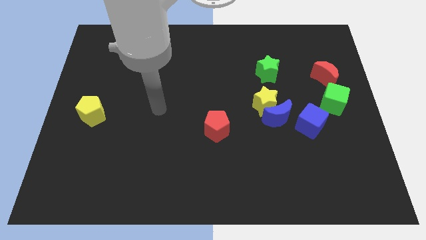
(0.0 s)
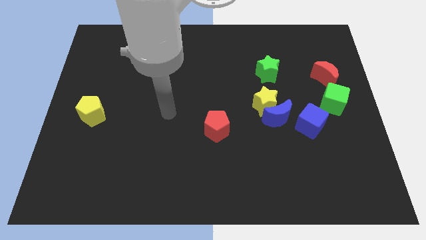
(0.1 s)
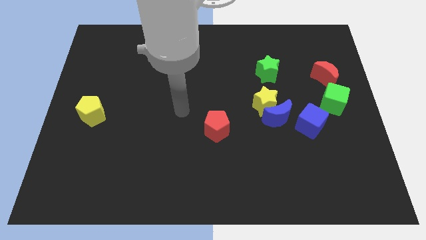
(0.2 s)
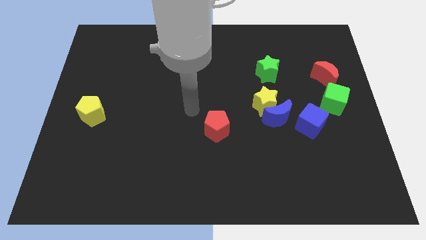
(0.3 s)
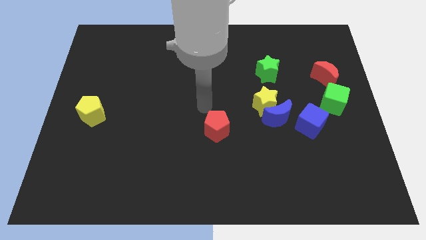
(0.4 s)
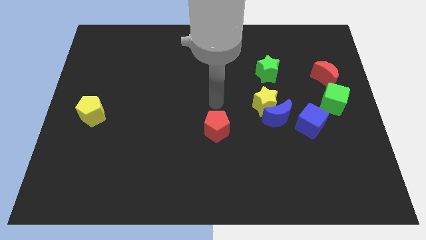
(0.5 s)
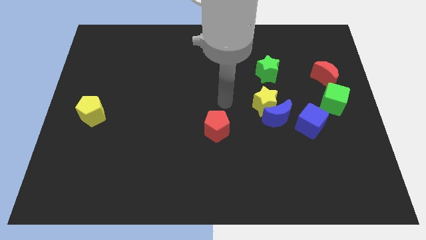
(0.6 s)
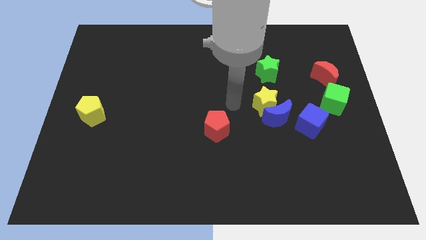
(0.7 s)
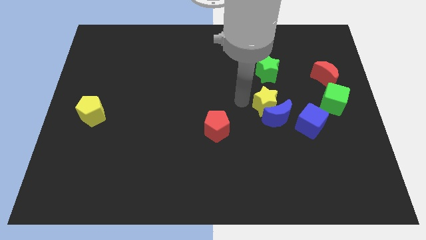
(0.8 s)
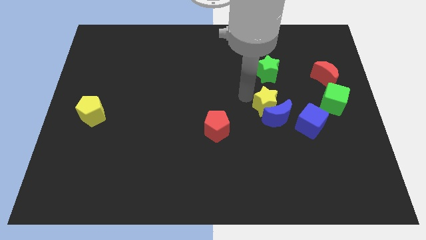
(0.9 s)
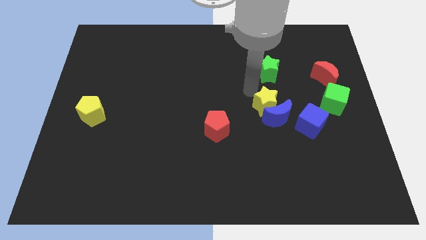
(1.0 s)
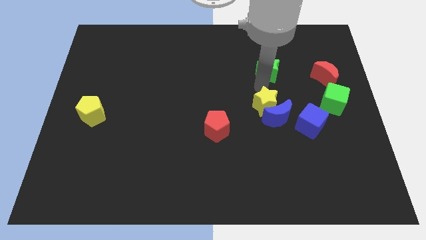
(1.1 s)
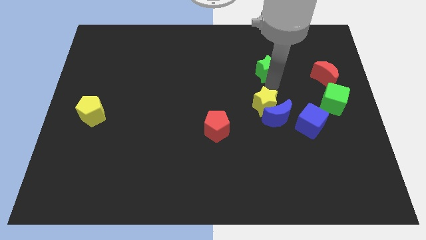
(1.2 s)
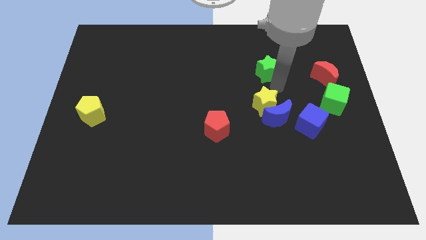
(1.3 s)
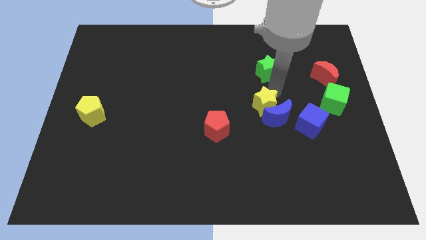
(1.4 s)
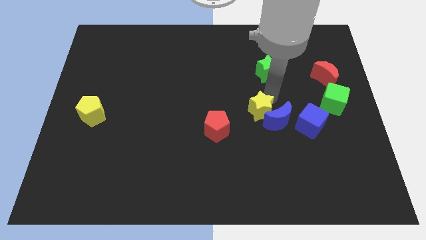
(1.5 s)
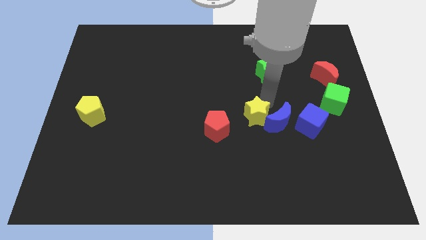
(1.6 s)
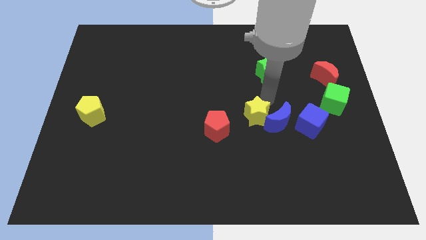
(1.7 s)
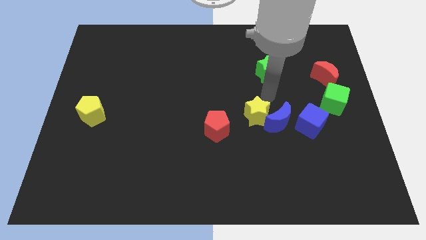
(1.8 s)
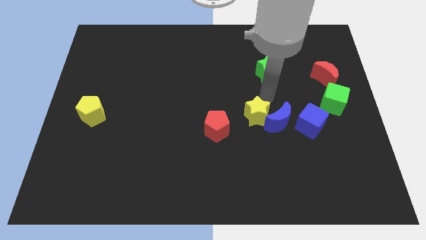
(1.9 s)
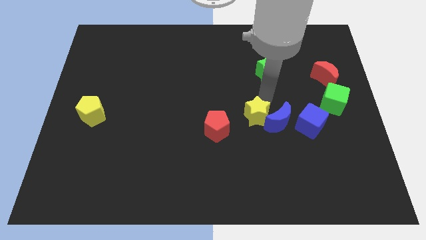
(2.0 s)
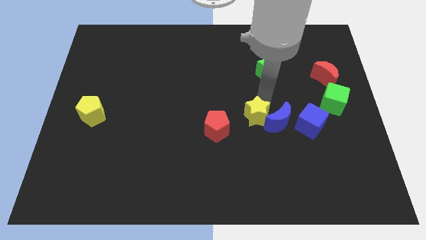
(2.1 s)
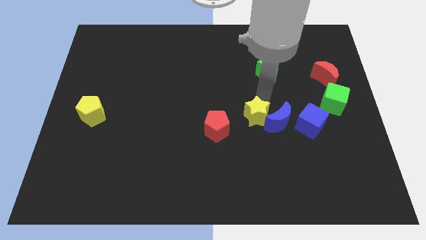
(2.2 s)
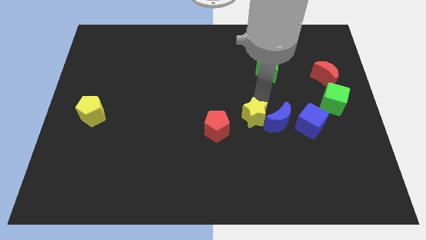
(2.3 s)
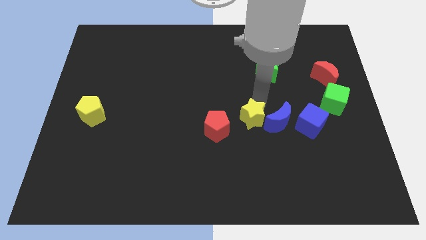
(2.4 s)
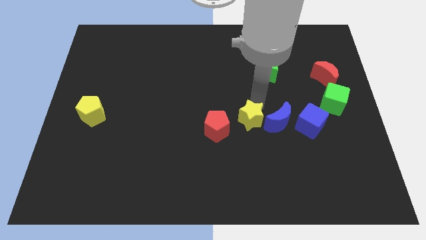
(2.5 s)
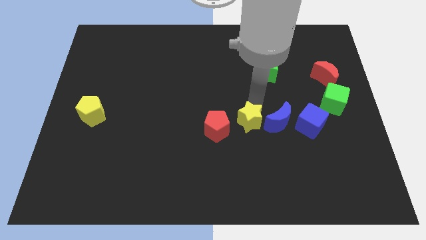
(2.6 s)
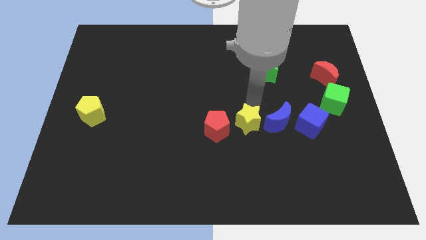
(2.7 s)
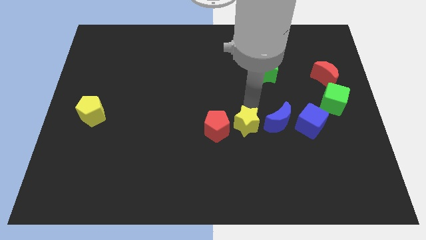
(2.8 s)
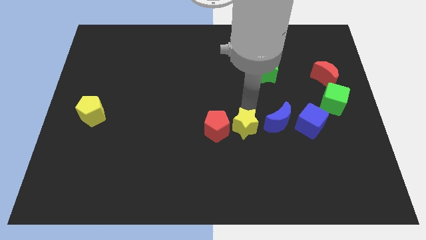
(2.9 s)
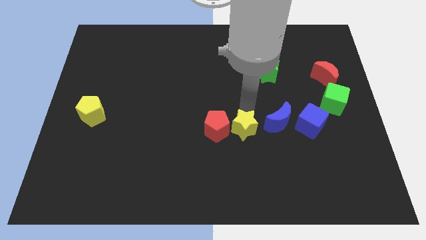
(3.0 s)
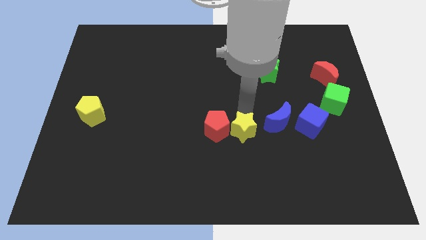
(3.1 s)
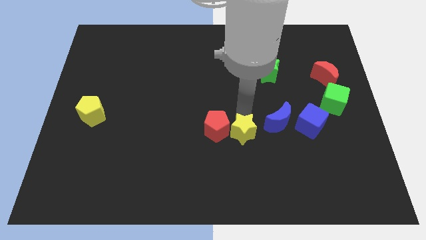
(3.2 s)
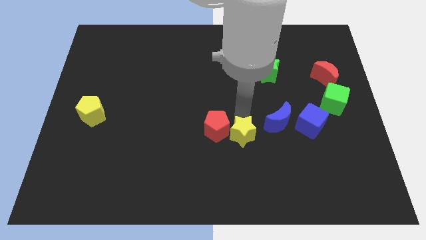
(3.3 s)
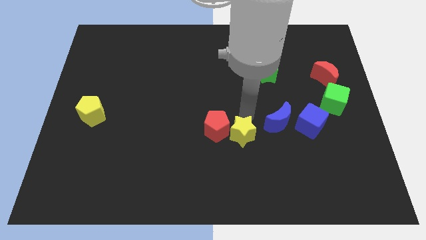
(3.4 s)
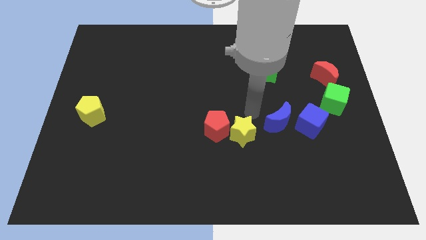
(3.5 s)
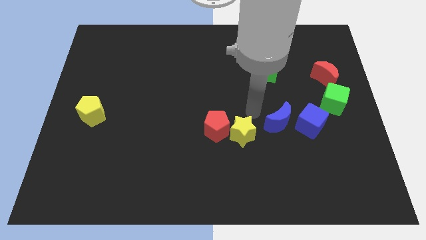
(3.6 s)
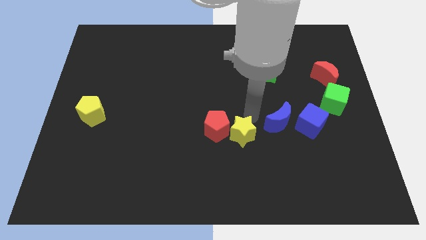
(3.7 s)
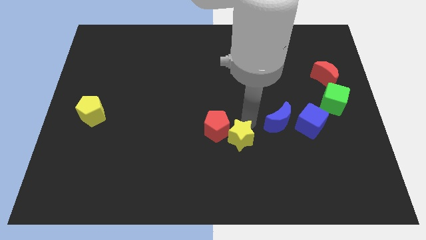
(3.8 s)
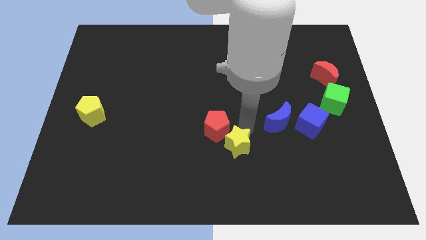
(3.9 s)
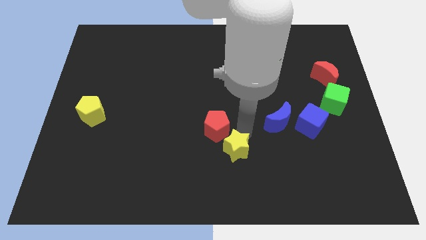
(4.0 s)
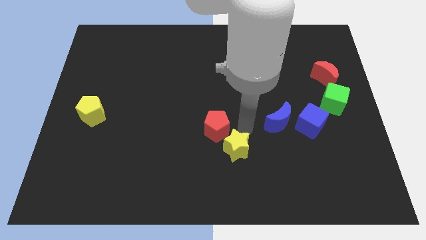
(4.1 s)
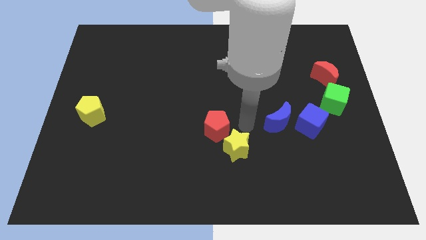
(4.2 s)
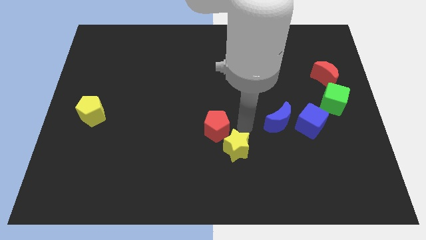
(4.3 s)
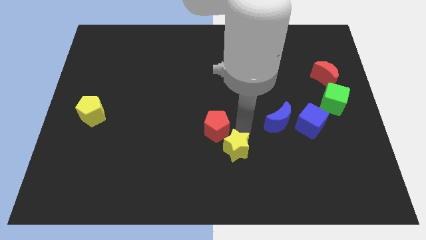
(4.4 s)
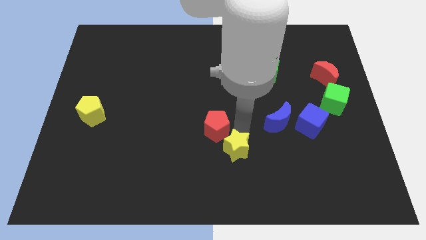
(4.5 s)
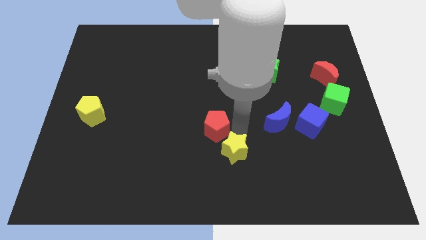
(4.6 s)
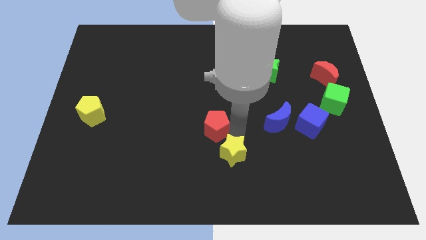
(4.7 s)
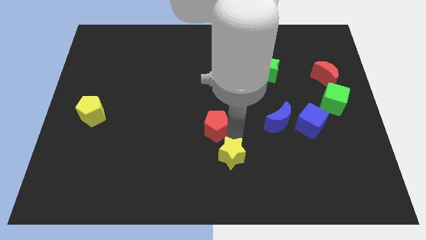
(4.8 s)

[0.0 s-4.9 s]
slide the yellow star to the bottom

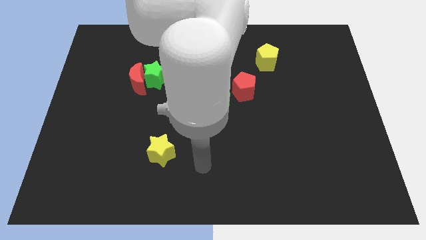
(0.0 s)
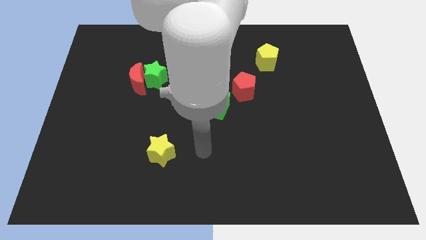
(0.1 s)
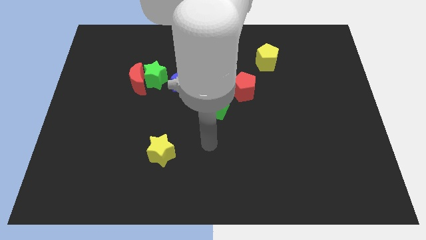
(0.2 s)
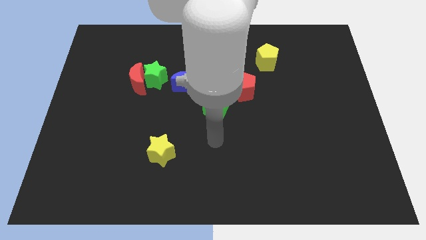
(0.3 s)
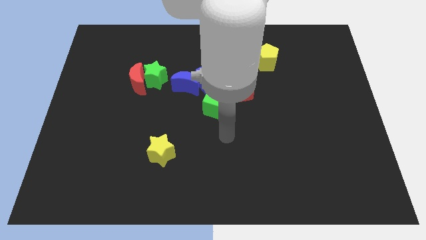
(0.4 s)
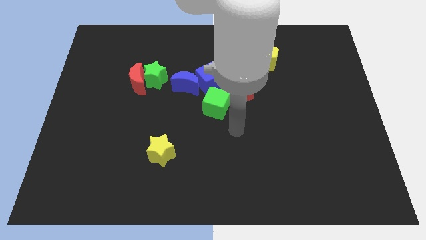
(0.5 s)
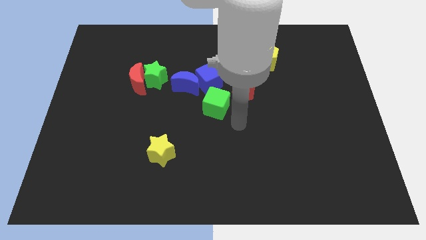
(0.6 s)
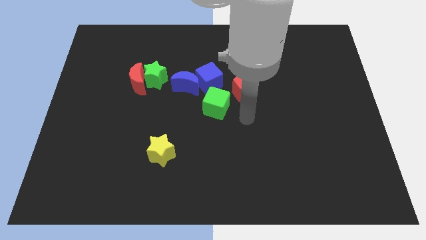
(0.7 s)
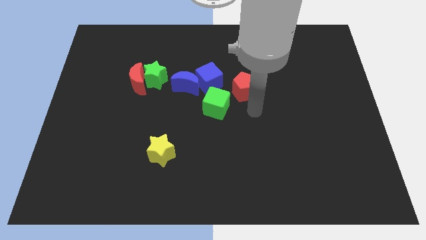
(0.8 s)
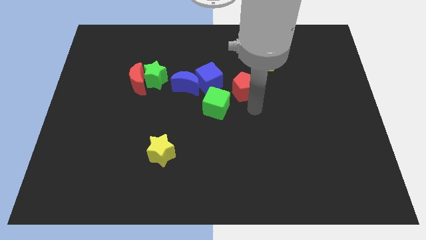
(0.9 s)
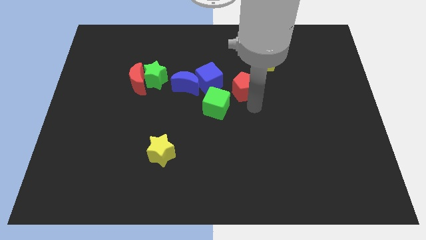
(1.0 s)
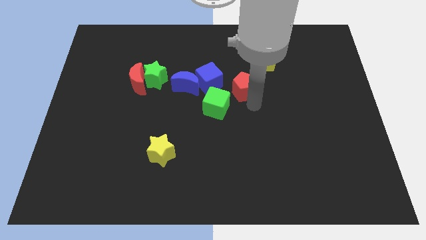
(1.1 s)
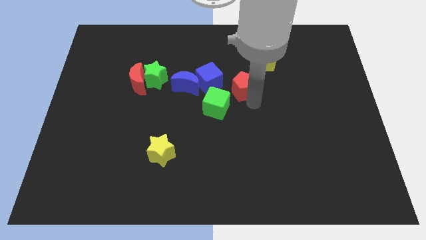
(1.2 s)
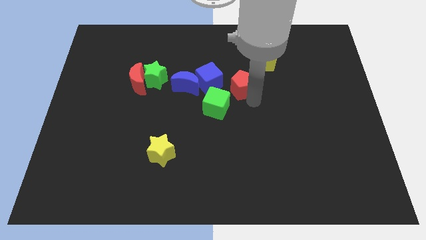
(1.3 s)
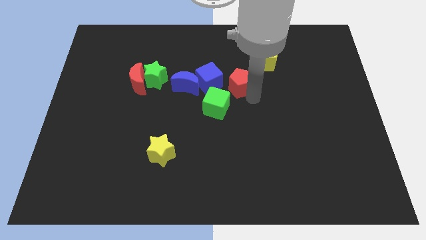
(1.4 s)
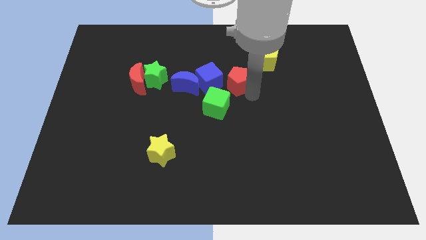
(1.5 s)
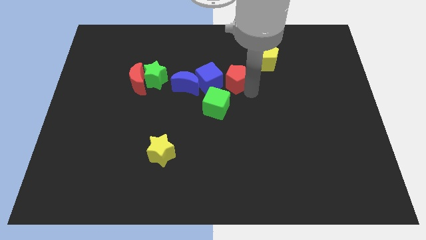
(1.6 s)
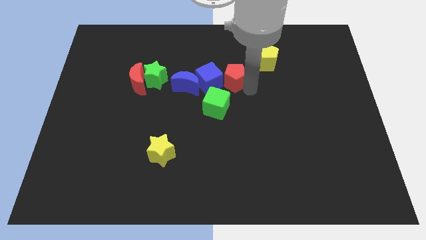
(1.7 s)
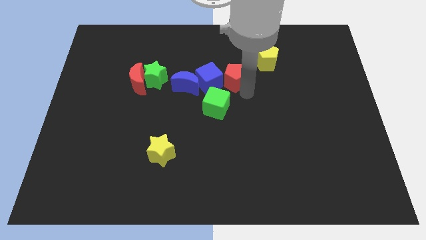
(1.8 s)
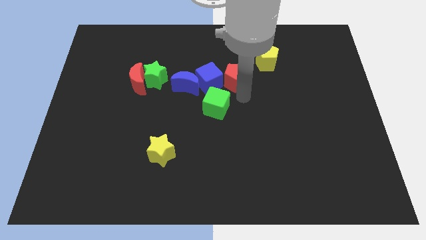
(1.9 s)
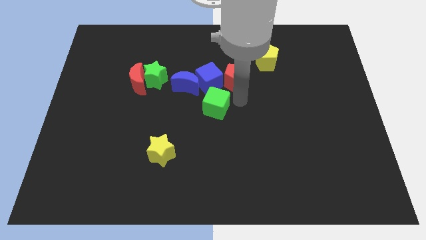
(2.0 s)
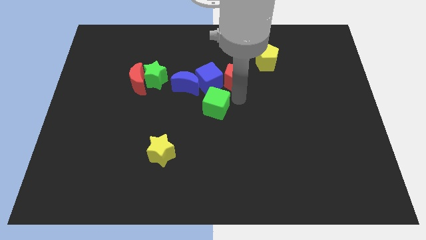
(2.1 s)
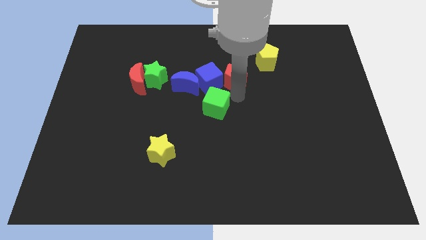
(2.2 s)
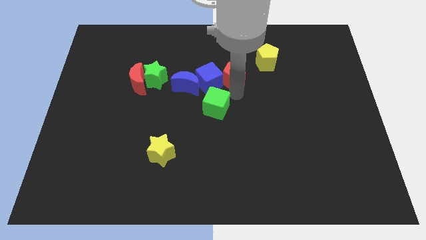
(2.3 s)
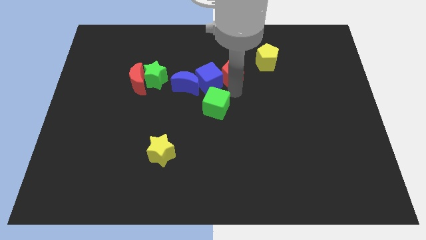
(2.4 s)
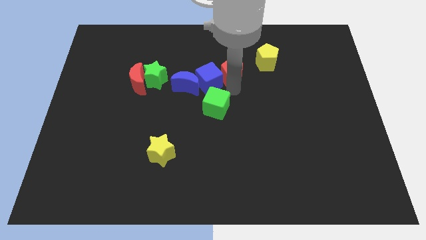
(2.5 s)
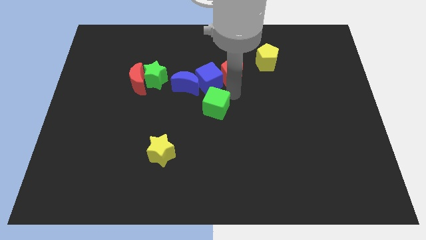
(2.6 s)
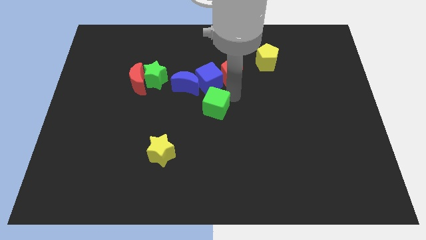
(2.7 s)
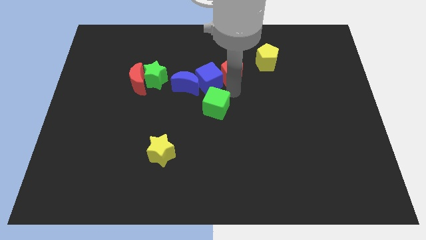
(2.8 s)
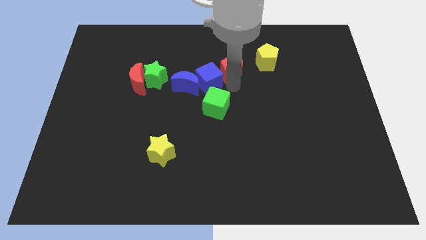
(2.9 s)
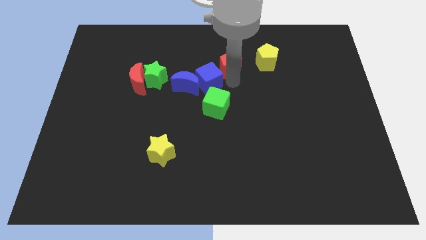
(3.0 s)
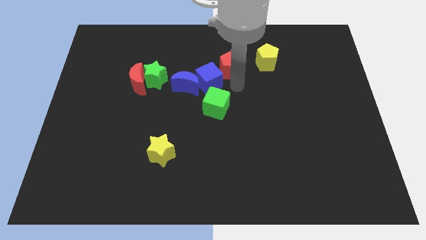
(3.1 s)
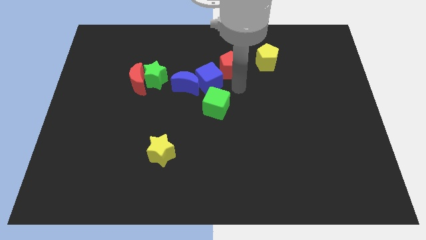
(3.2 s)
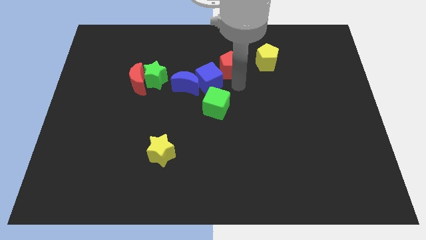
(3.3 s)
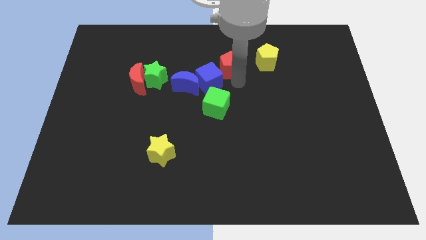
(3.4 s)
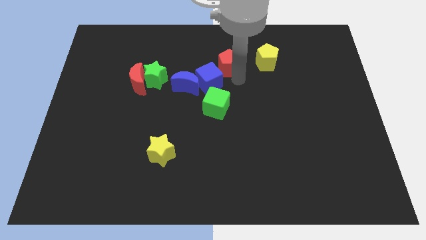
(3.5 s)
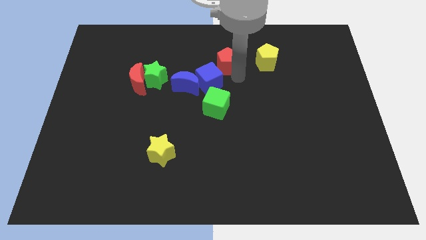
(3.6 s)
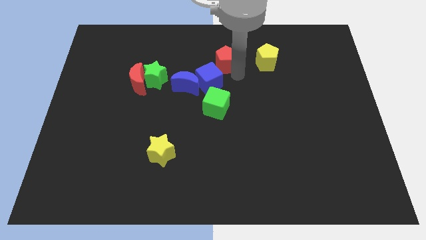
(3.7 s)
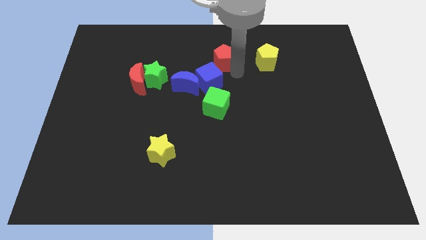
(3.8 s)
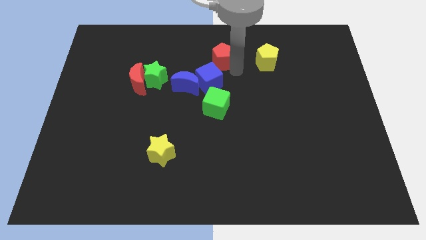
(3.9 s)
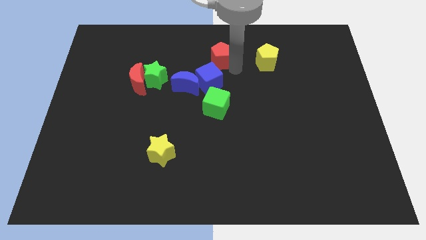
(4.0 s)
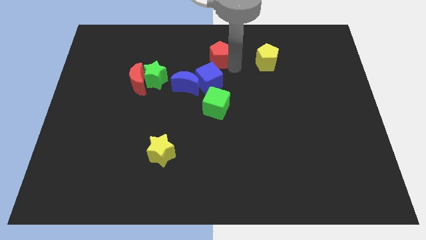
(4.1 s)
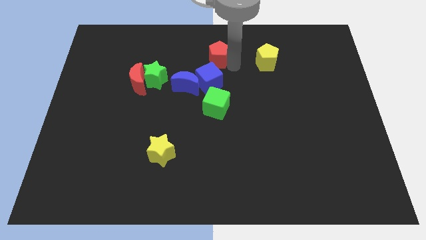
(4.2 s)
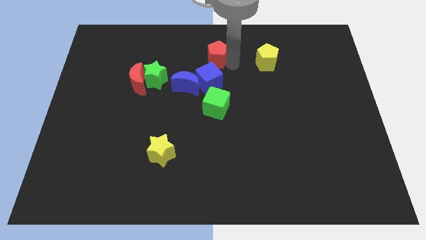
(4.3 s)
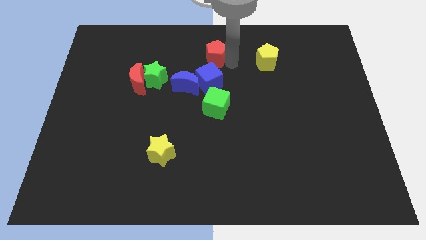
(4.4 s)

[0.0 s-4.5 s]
move the red pentagon to the top
